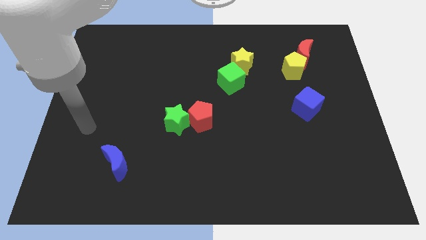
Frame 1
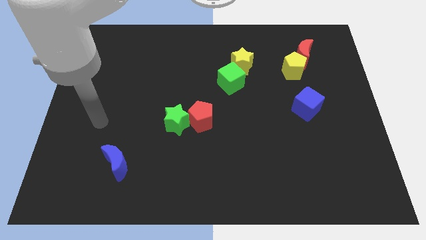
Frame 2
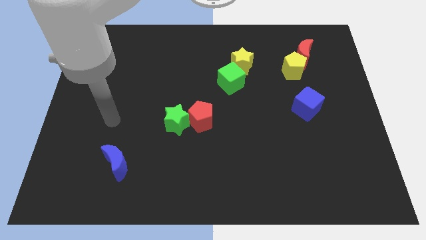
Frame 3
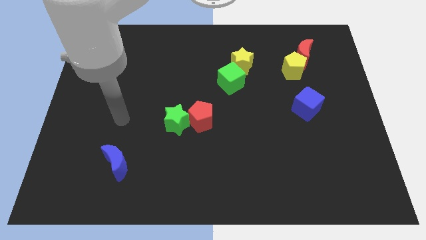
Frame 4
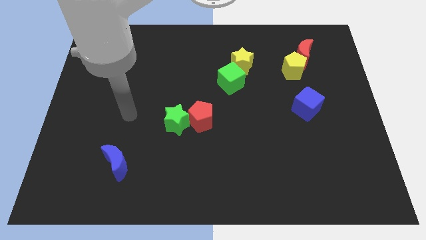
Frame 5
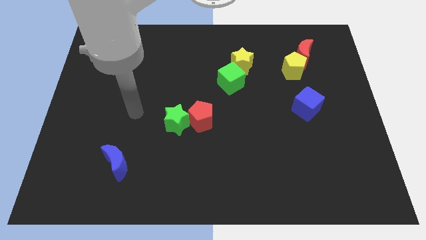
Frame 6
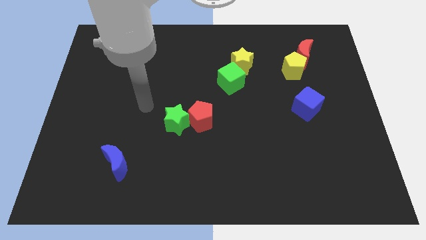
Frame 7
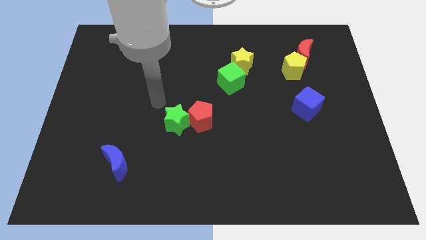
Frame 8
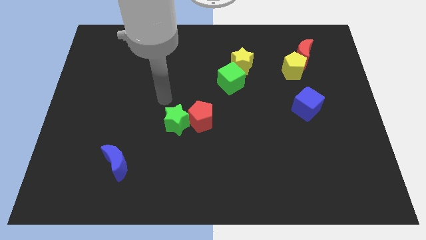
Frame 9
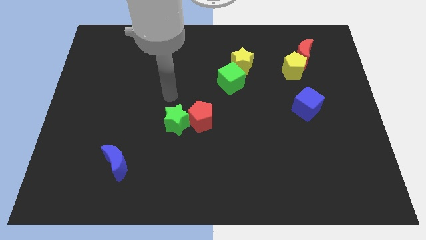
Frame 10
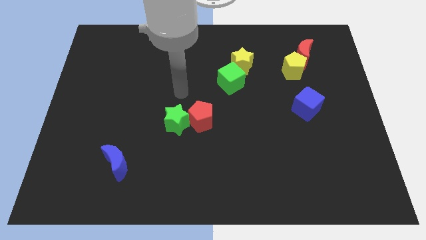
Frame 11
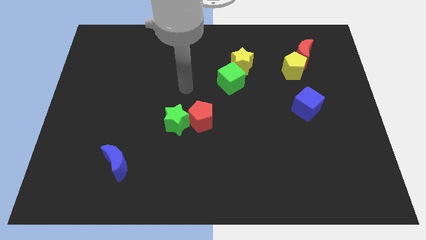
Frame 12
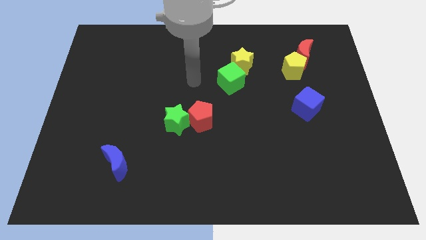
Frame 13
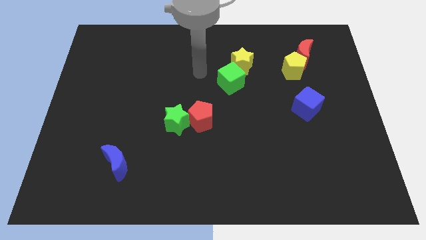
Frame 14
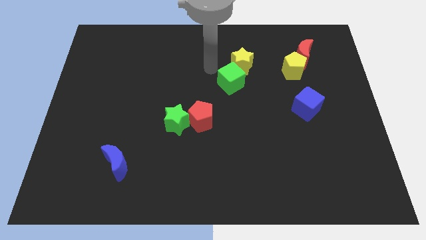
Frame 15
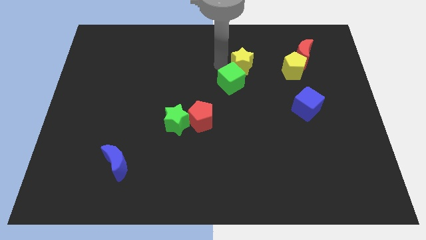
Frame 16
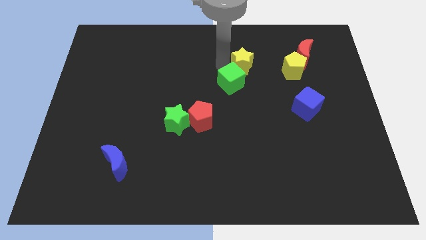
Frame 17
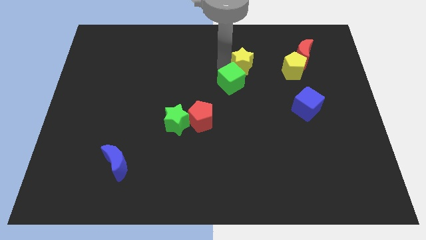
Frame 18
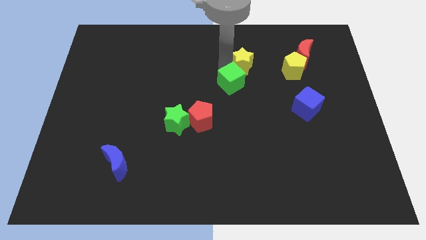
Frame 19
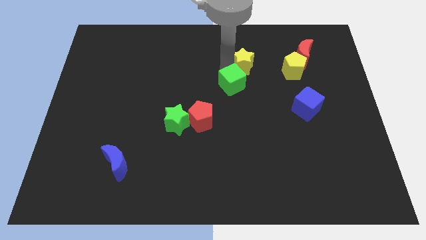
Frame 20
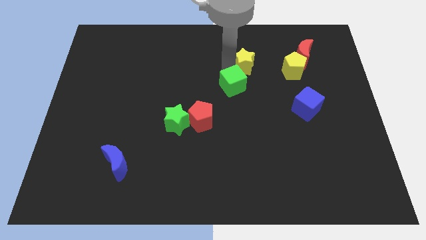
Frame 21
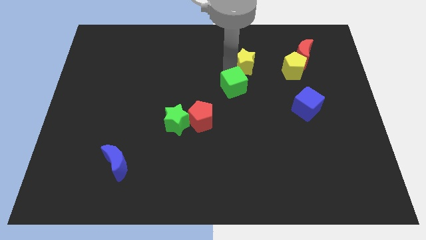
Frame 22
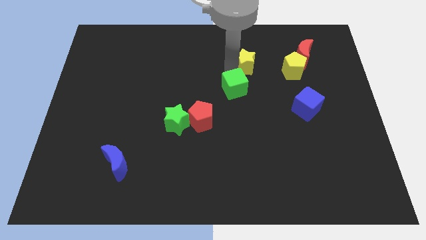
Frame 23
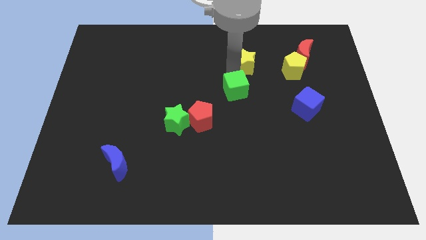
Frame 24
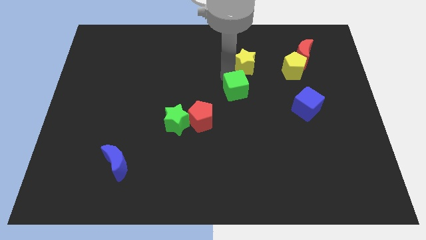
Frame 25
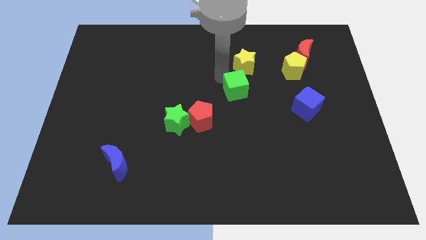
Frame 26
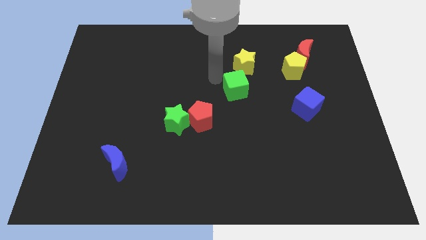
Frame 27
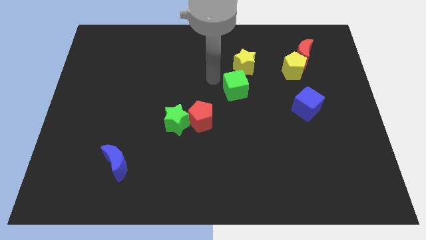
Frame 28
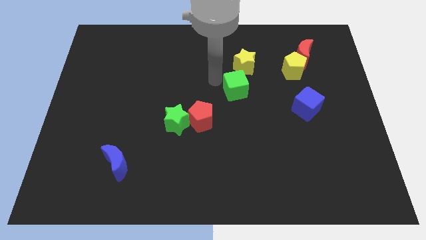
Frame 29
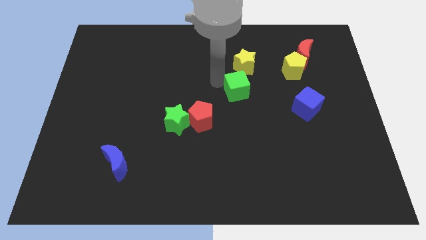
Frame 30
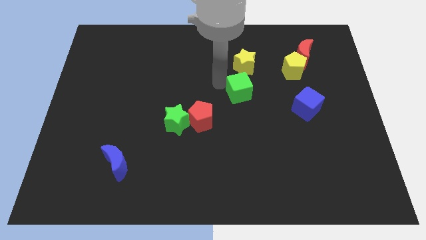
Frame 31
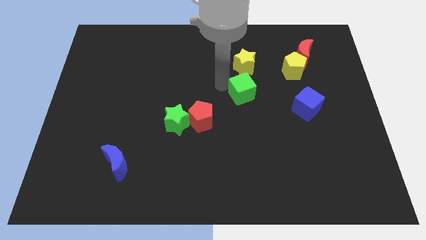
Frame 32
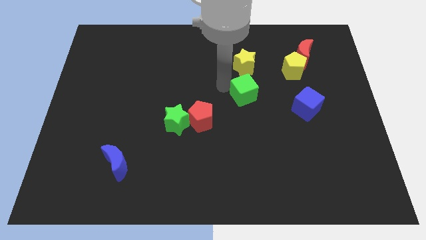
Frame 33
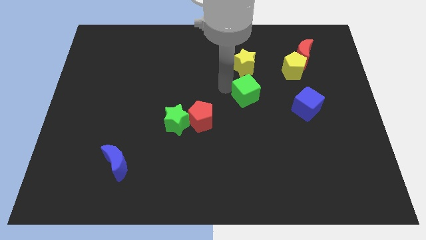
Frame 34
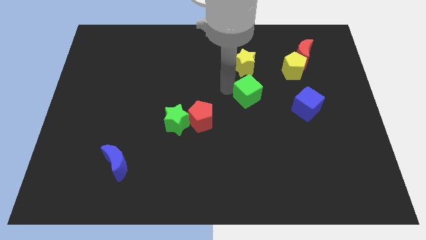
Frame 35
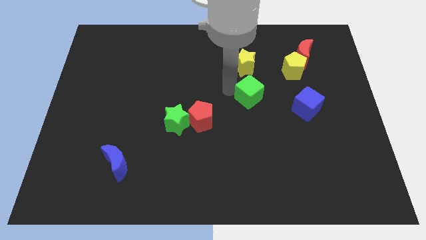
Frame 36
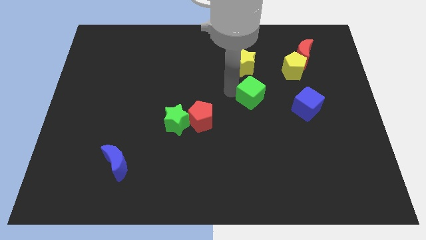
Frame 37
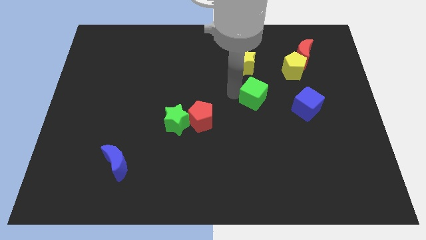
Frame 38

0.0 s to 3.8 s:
push the green cube somewhat diagonally down and right

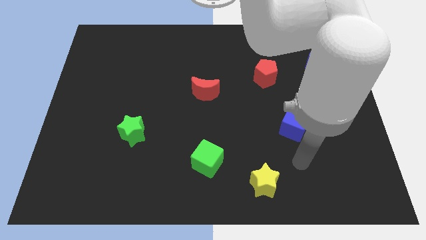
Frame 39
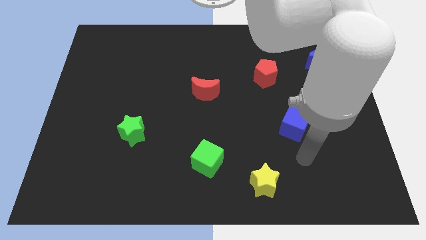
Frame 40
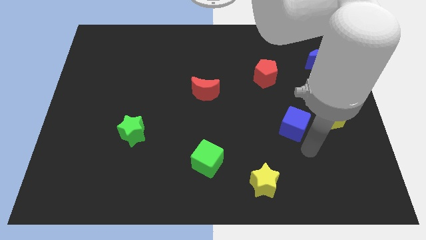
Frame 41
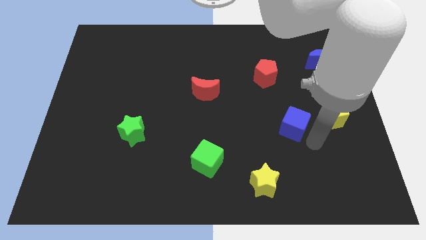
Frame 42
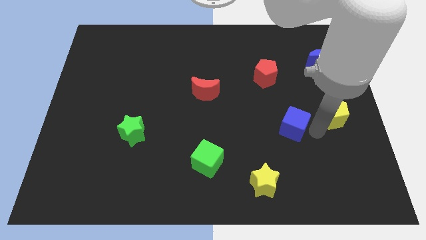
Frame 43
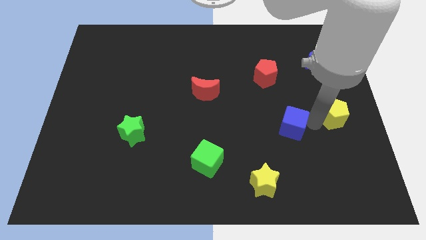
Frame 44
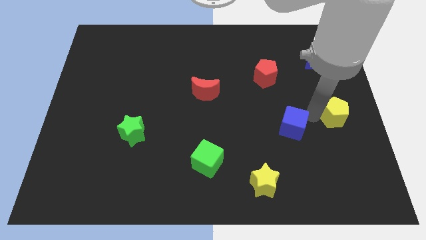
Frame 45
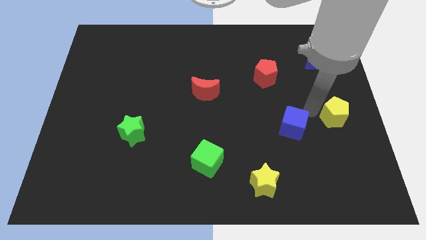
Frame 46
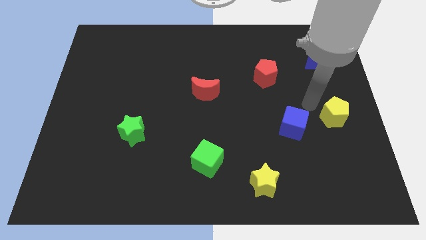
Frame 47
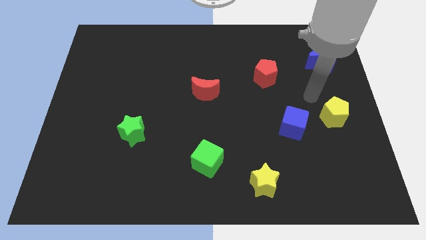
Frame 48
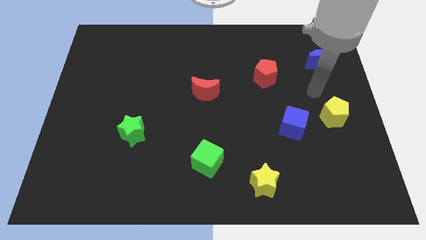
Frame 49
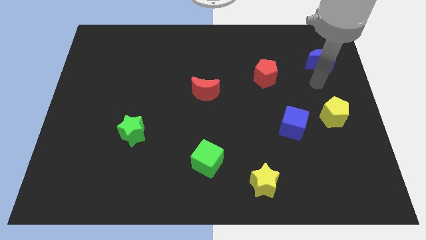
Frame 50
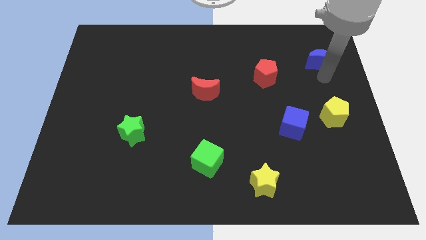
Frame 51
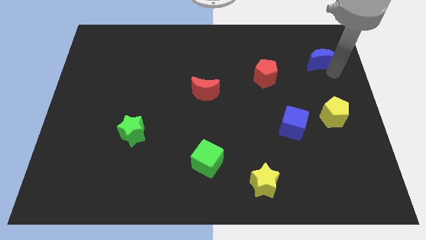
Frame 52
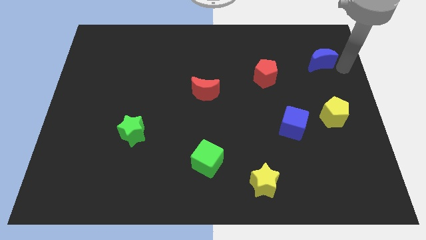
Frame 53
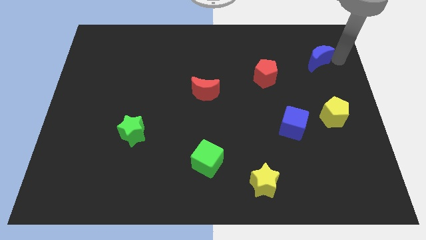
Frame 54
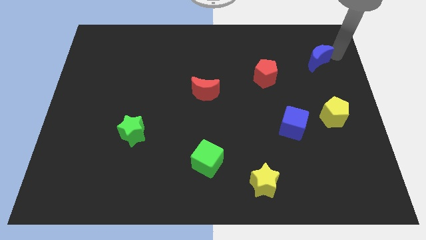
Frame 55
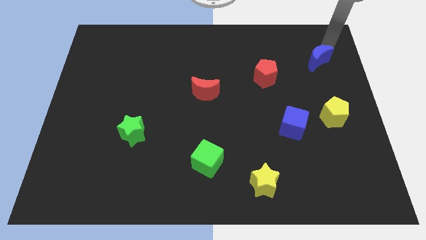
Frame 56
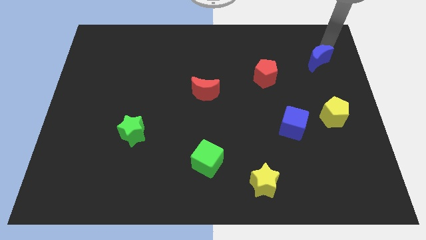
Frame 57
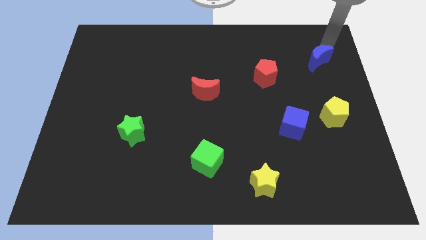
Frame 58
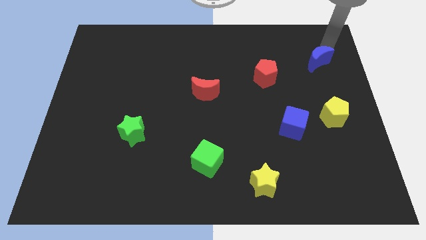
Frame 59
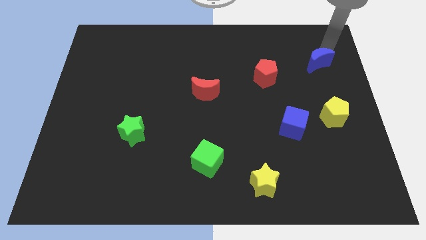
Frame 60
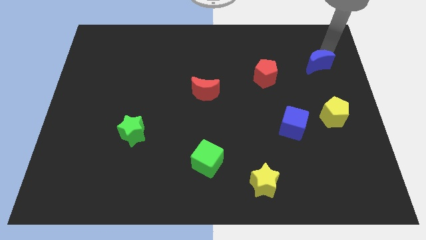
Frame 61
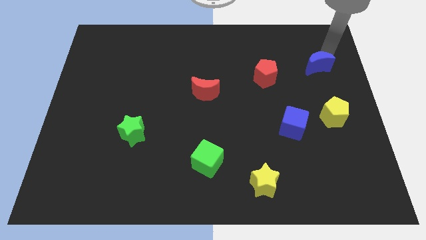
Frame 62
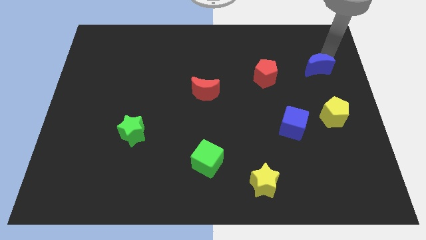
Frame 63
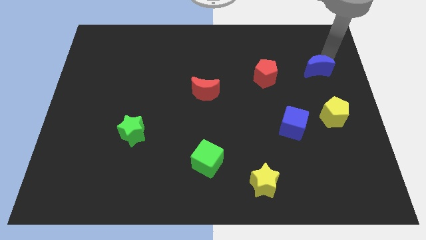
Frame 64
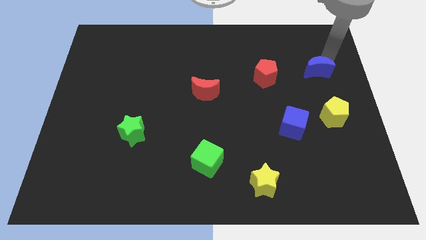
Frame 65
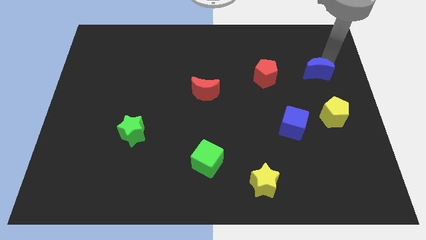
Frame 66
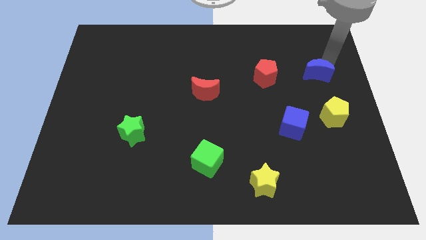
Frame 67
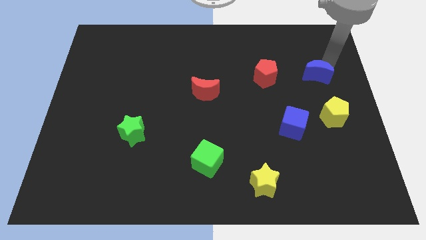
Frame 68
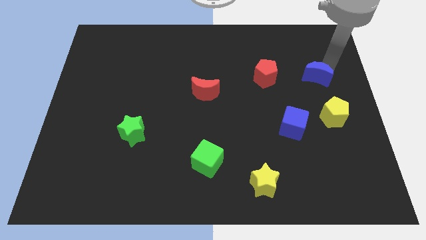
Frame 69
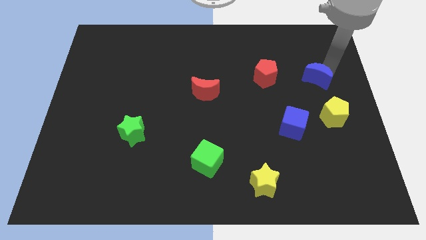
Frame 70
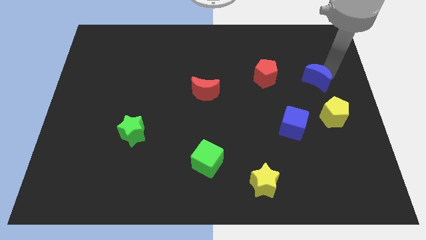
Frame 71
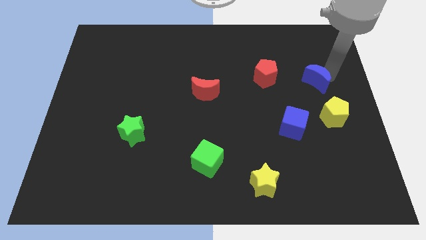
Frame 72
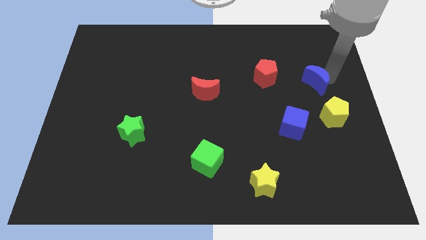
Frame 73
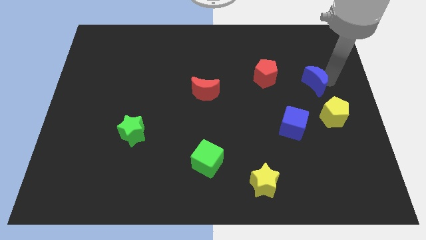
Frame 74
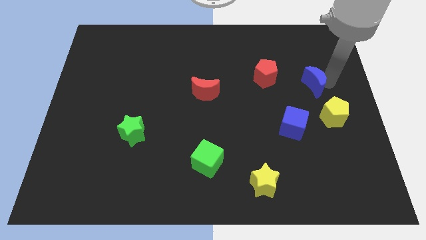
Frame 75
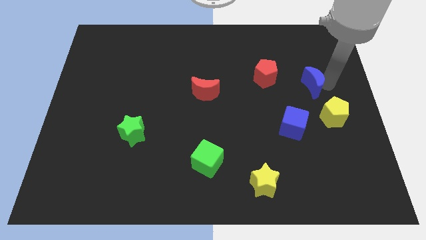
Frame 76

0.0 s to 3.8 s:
slightly slide the blue moon downwards and left diagonally

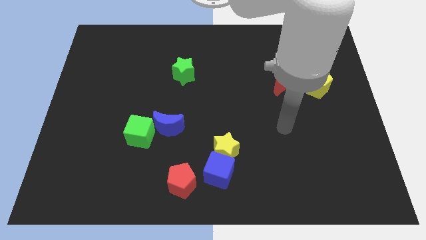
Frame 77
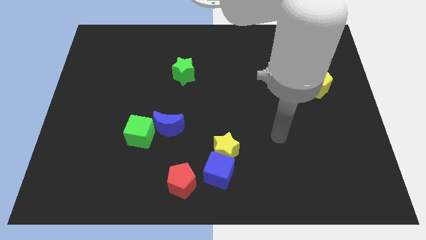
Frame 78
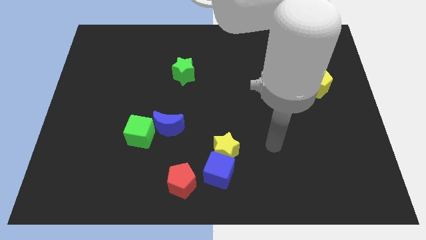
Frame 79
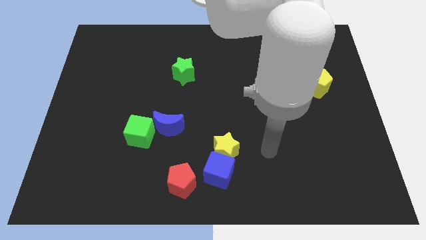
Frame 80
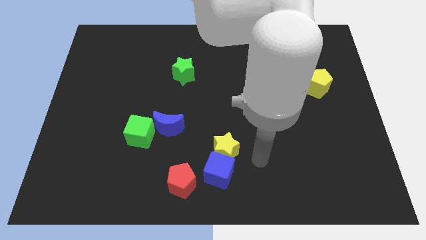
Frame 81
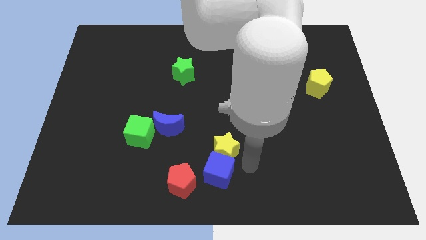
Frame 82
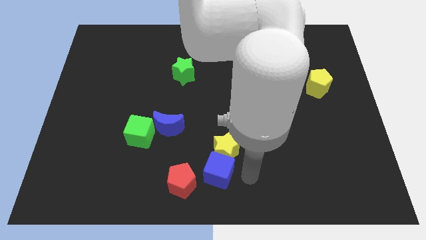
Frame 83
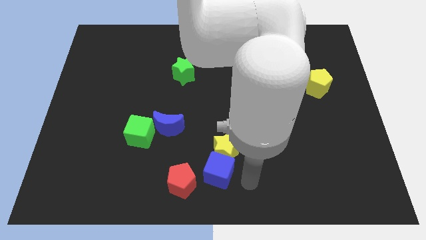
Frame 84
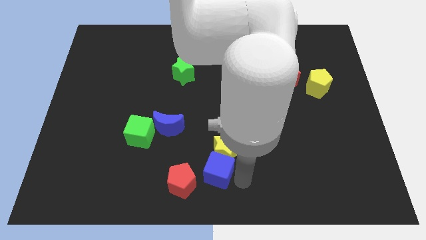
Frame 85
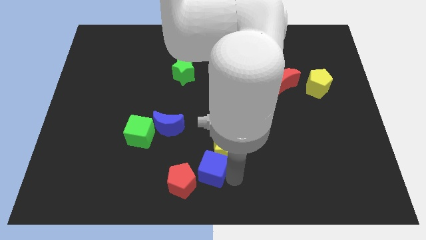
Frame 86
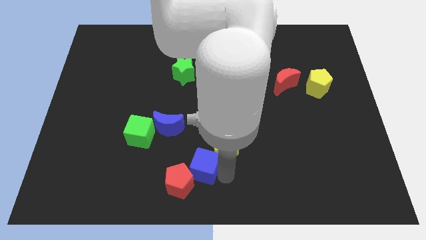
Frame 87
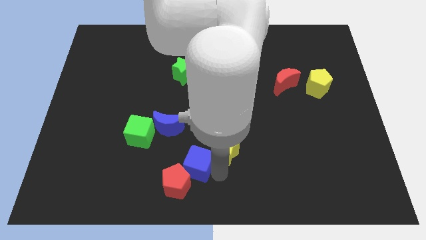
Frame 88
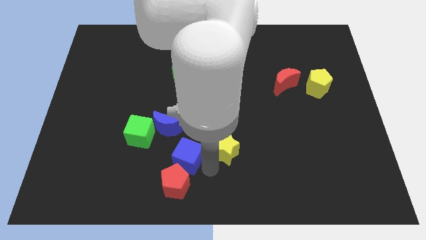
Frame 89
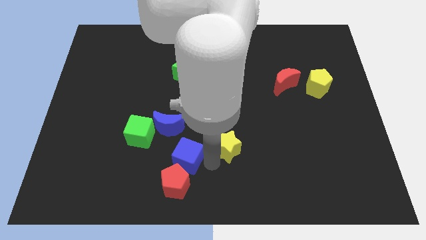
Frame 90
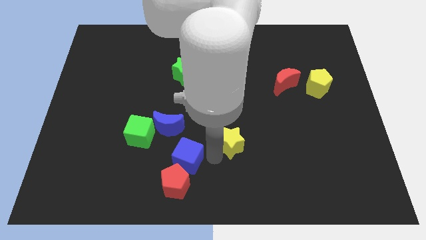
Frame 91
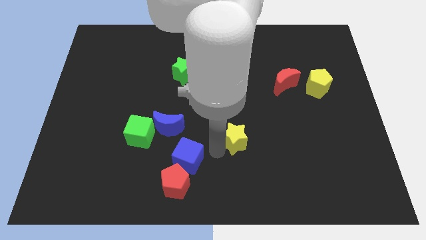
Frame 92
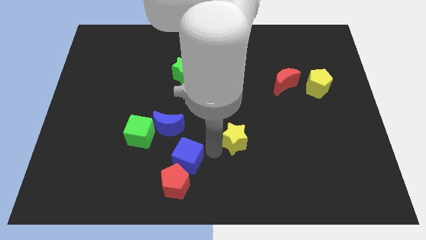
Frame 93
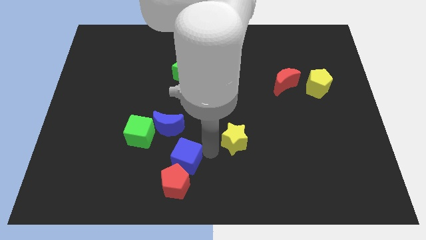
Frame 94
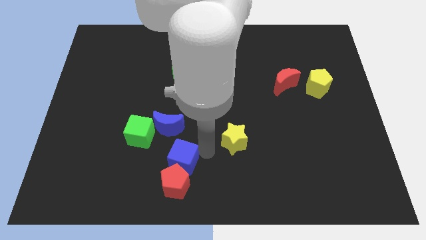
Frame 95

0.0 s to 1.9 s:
push the blue cube slightly to the left
